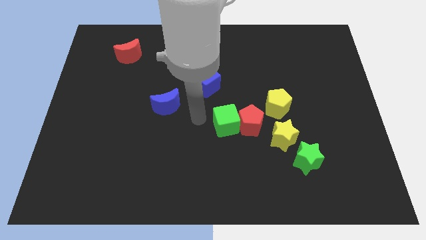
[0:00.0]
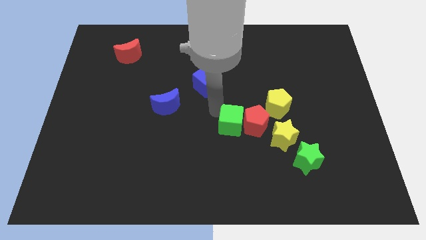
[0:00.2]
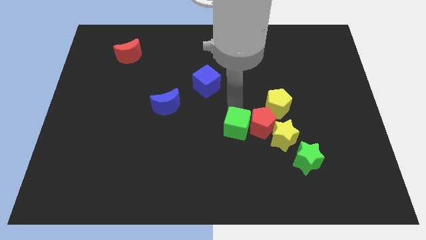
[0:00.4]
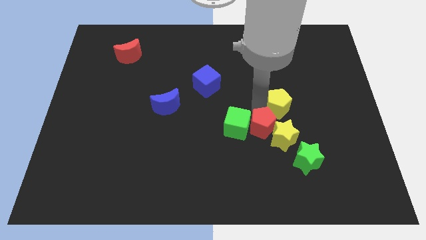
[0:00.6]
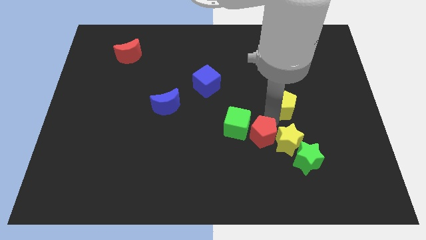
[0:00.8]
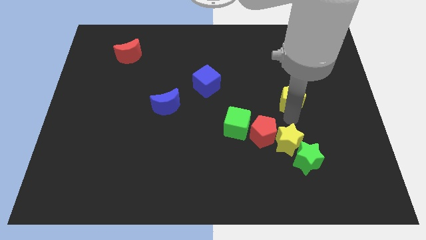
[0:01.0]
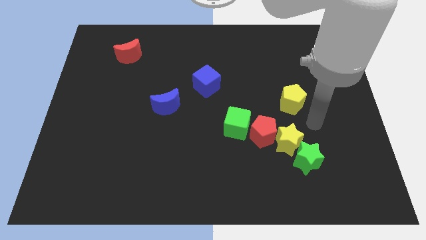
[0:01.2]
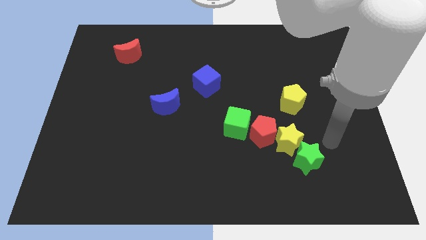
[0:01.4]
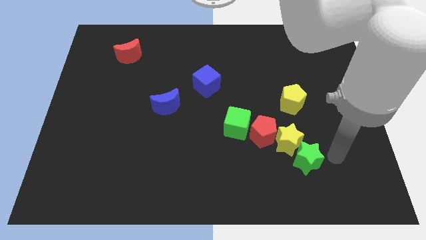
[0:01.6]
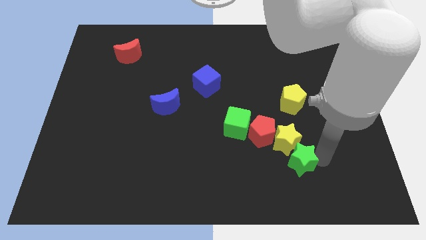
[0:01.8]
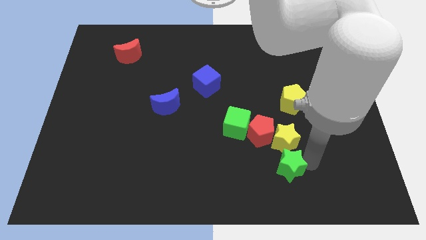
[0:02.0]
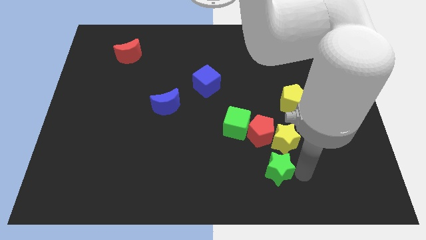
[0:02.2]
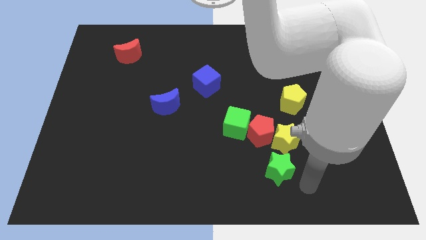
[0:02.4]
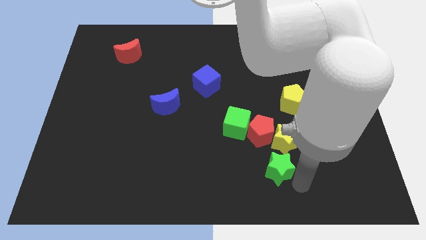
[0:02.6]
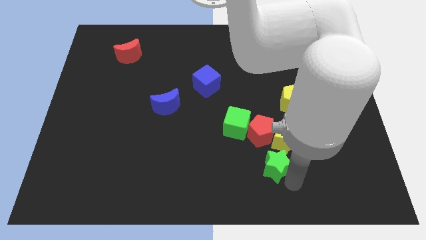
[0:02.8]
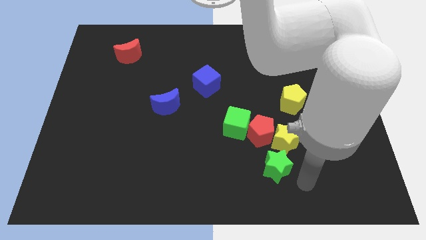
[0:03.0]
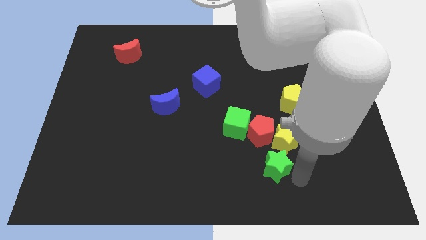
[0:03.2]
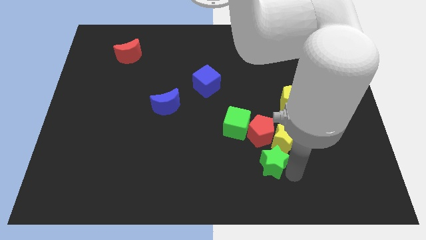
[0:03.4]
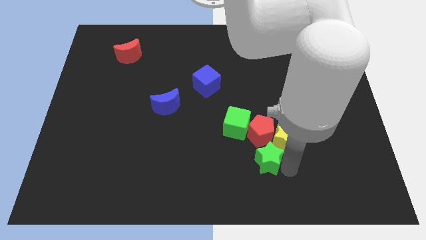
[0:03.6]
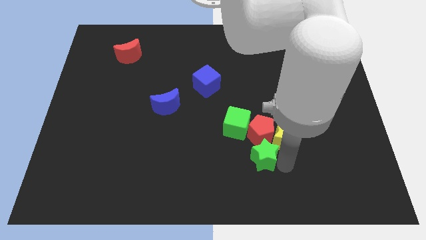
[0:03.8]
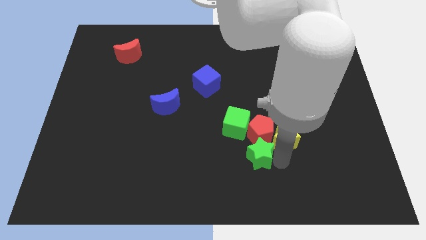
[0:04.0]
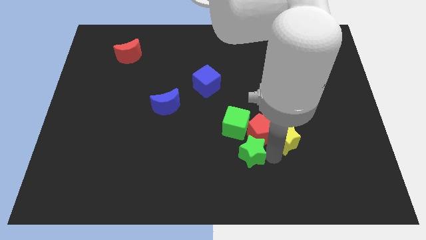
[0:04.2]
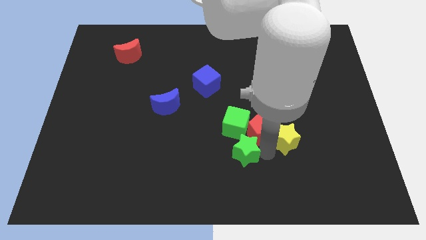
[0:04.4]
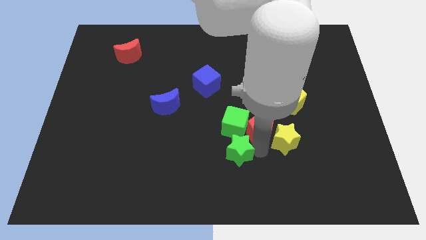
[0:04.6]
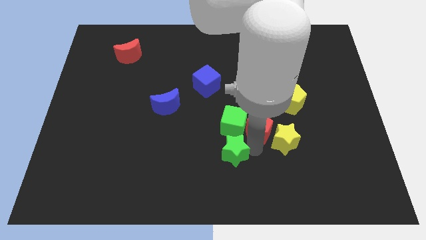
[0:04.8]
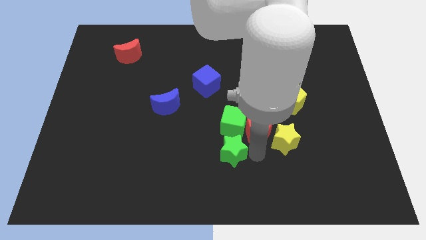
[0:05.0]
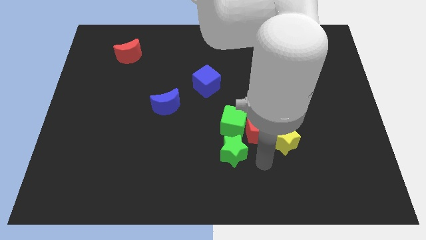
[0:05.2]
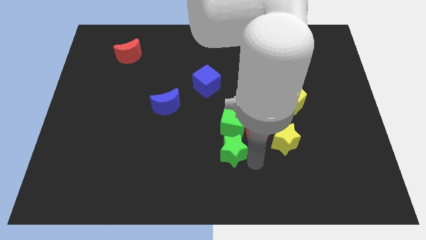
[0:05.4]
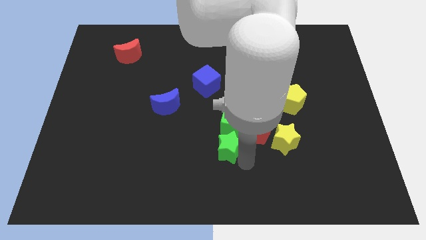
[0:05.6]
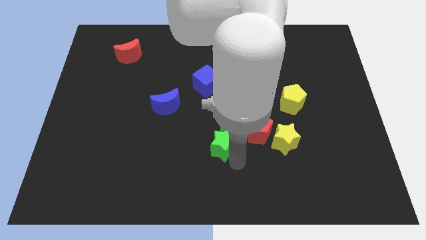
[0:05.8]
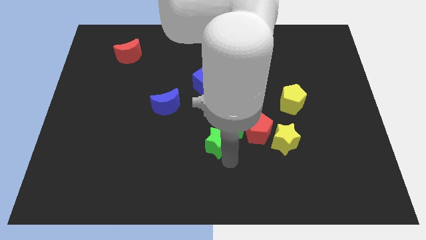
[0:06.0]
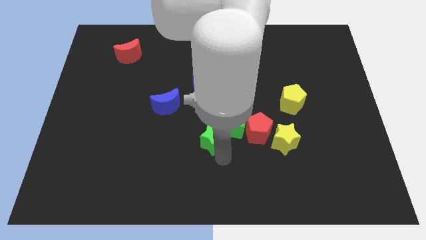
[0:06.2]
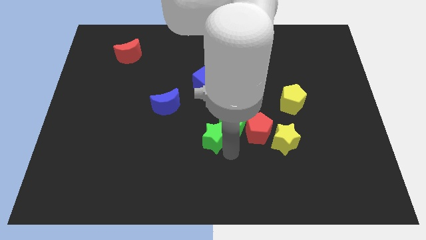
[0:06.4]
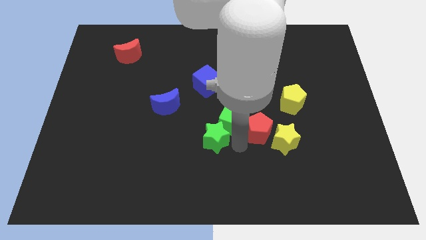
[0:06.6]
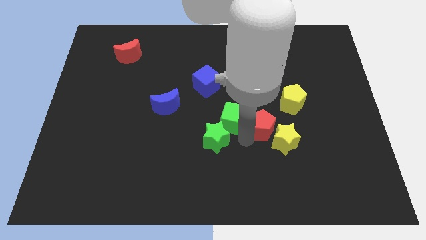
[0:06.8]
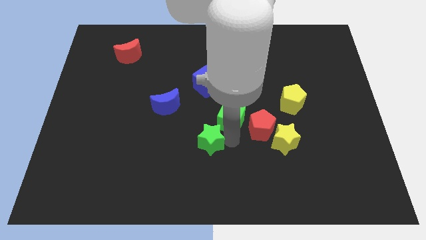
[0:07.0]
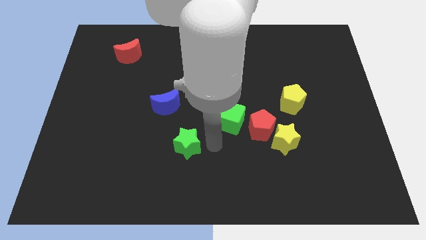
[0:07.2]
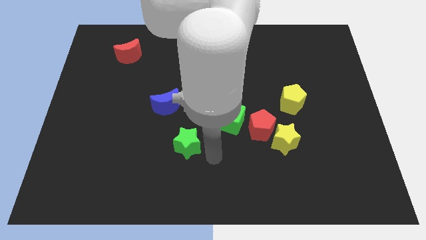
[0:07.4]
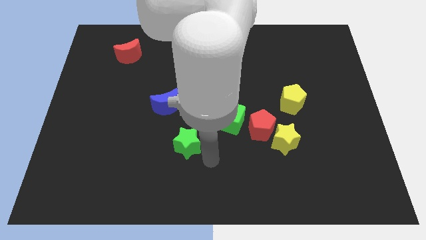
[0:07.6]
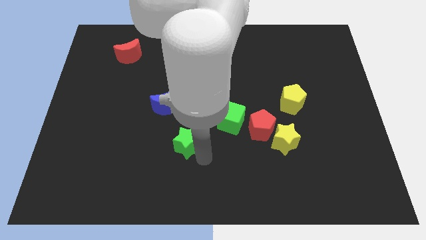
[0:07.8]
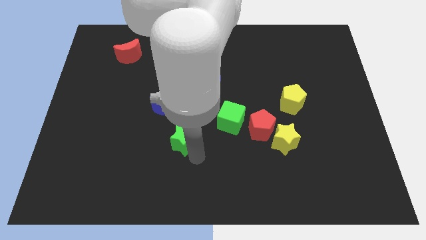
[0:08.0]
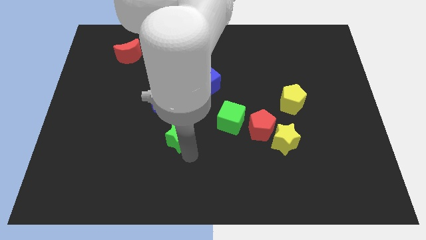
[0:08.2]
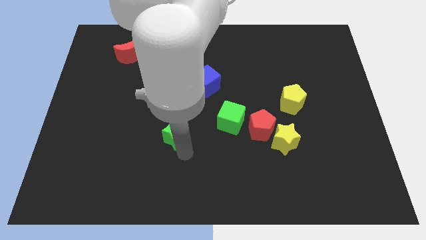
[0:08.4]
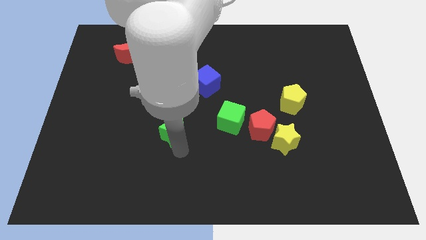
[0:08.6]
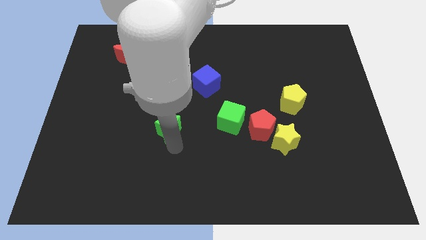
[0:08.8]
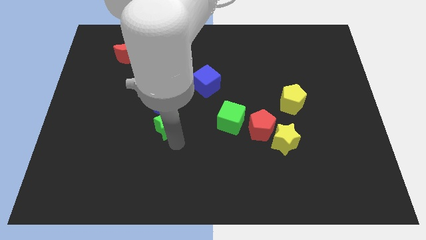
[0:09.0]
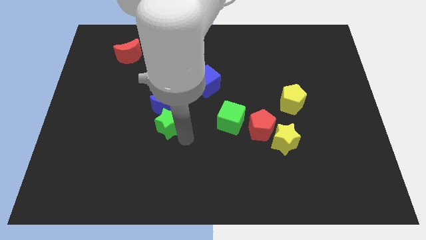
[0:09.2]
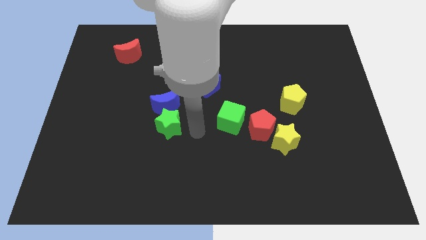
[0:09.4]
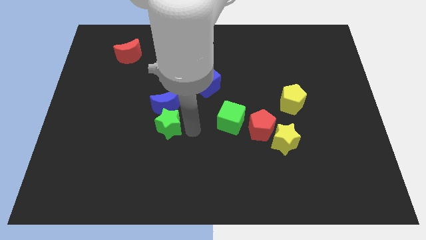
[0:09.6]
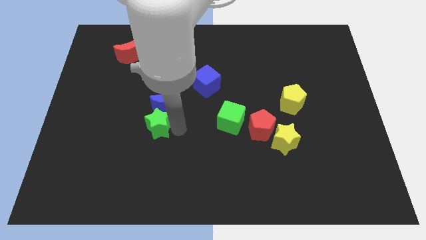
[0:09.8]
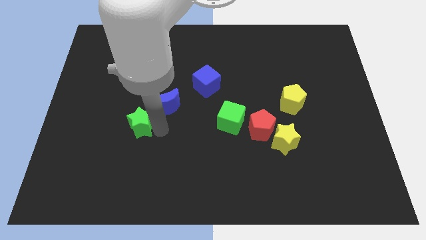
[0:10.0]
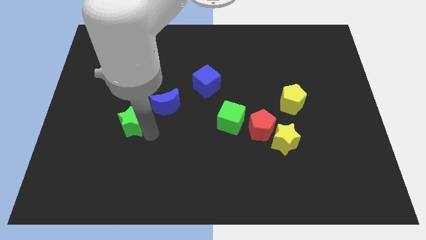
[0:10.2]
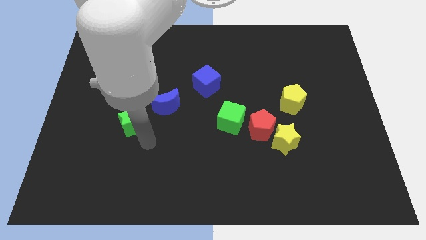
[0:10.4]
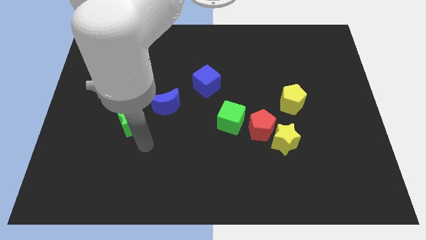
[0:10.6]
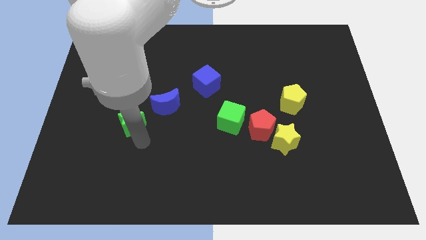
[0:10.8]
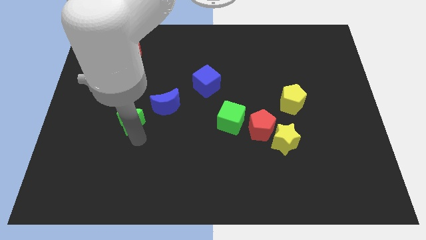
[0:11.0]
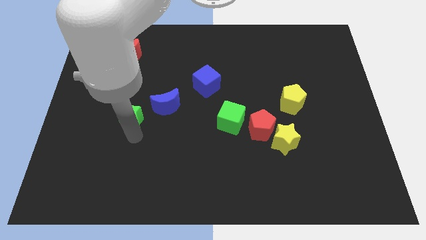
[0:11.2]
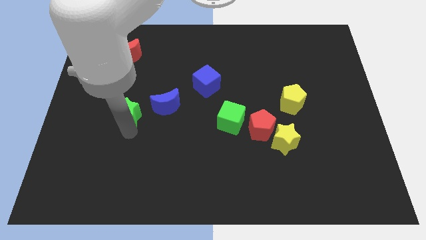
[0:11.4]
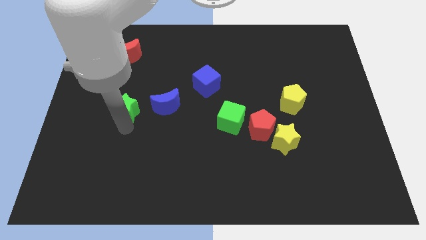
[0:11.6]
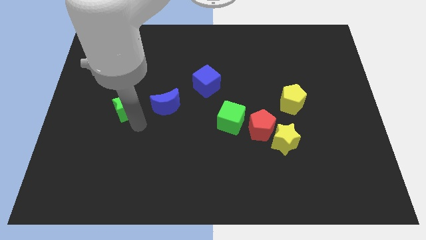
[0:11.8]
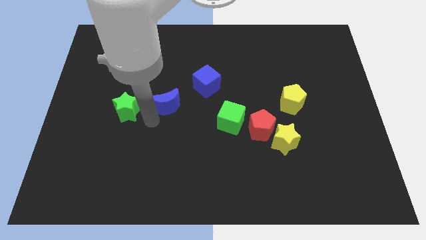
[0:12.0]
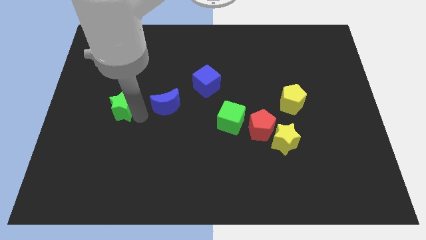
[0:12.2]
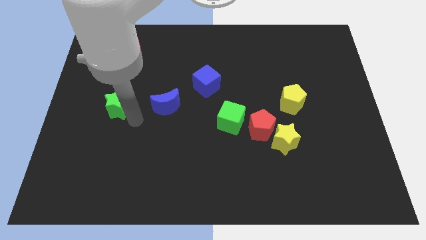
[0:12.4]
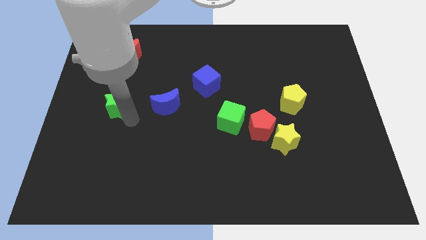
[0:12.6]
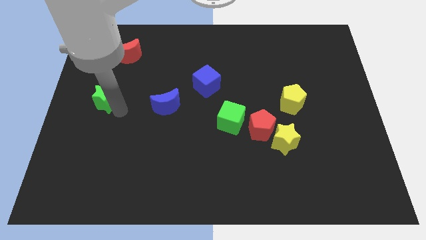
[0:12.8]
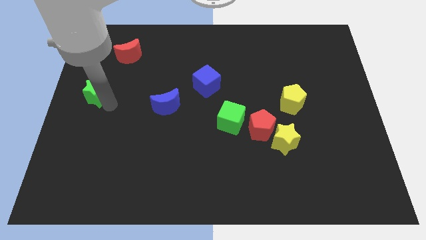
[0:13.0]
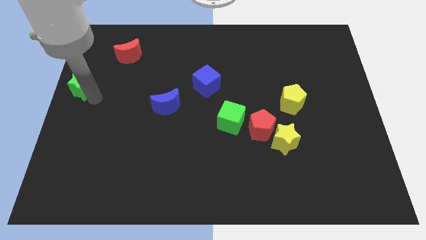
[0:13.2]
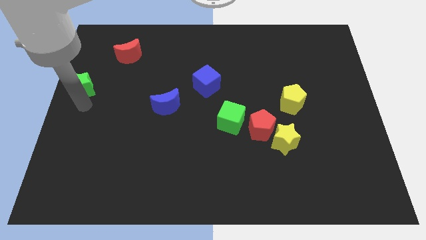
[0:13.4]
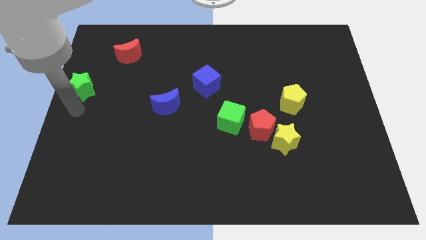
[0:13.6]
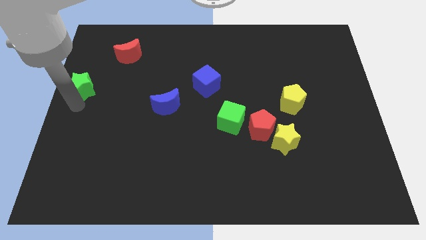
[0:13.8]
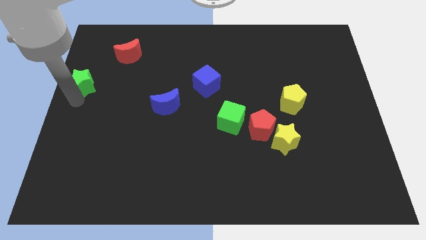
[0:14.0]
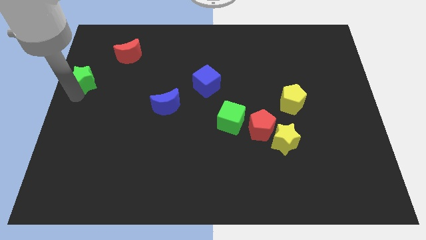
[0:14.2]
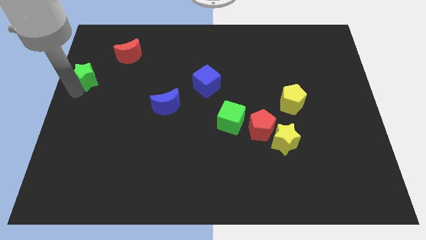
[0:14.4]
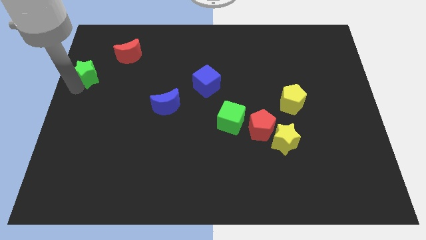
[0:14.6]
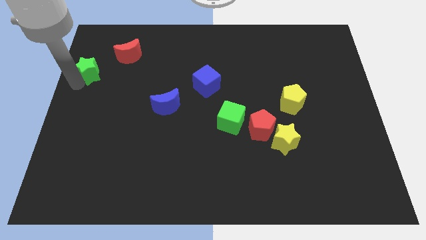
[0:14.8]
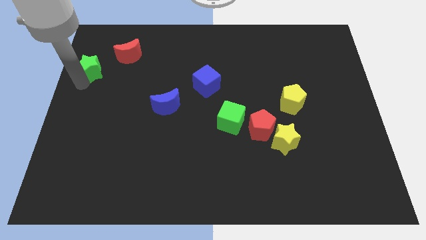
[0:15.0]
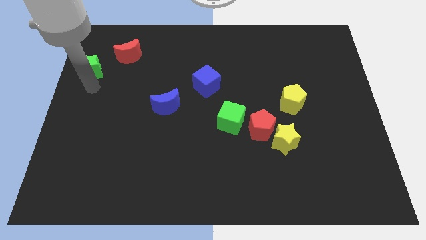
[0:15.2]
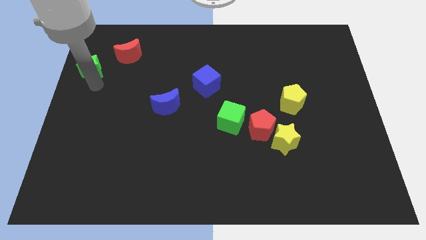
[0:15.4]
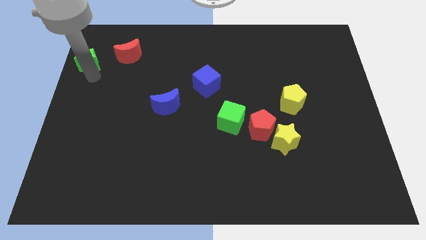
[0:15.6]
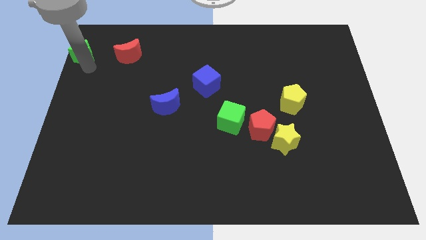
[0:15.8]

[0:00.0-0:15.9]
move the green star to the top left
